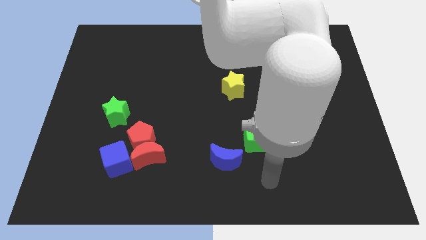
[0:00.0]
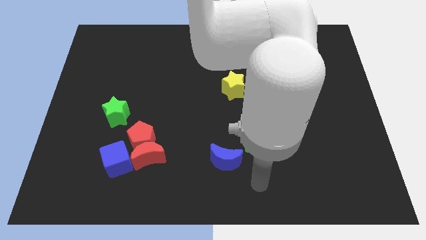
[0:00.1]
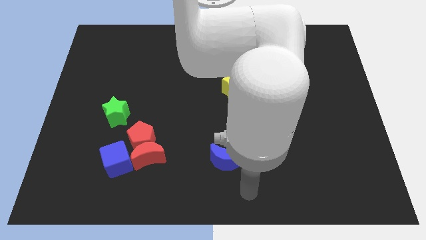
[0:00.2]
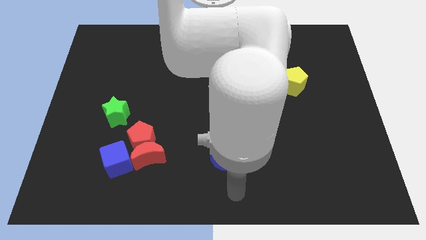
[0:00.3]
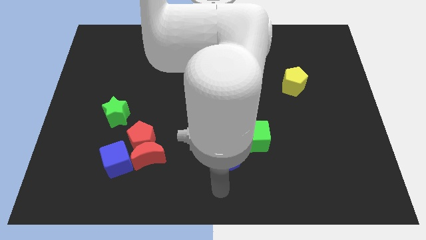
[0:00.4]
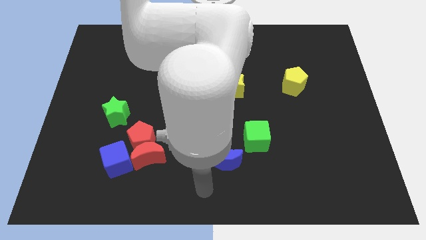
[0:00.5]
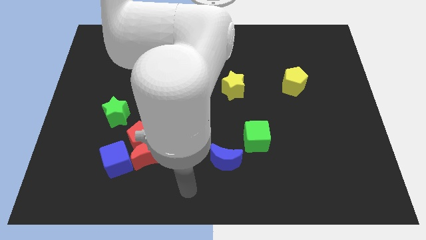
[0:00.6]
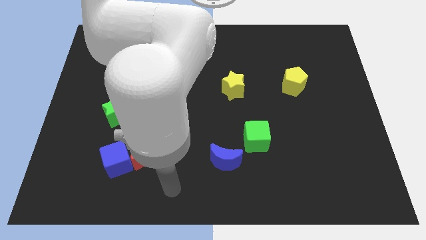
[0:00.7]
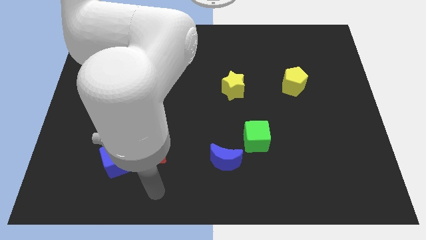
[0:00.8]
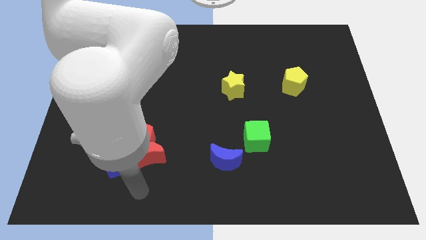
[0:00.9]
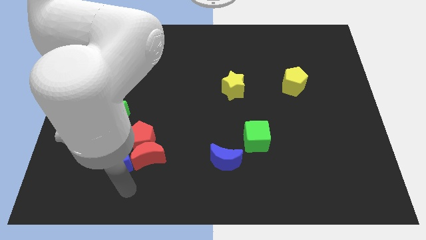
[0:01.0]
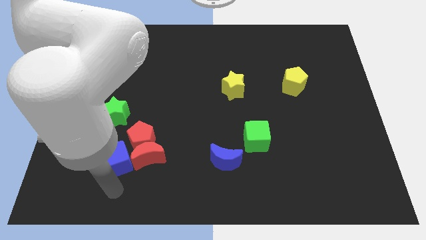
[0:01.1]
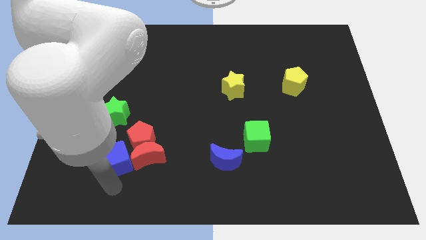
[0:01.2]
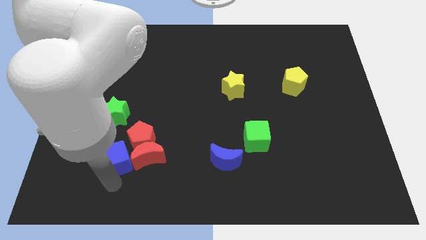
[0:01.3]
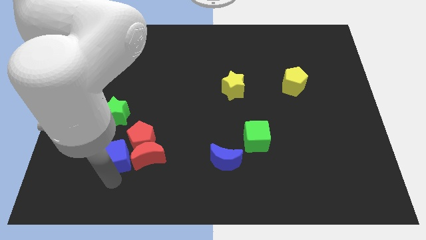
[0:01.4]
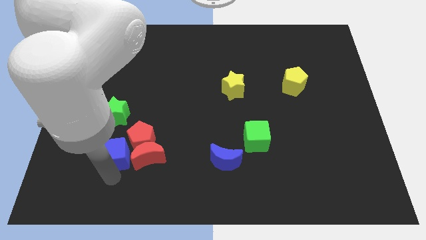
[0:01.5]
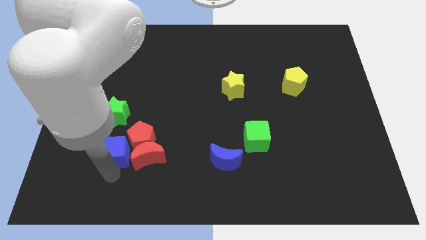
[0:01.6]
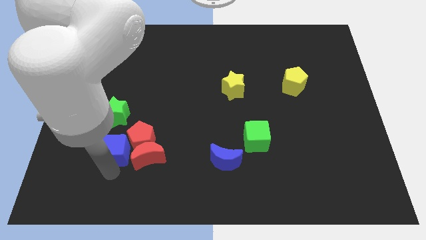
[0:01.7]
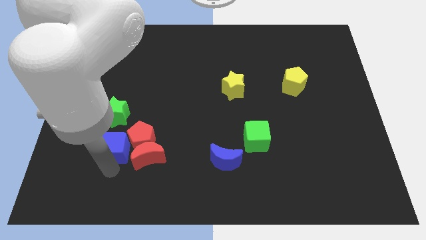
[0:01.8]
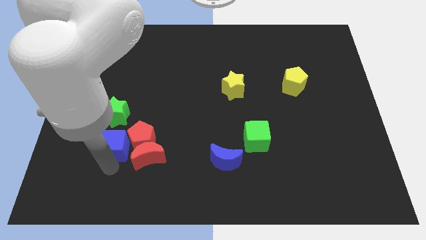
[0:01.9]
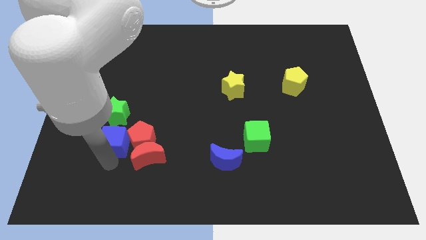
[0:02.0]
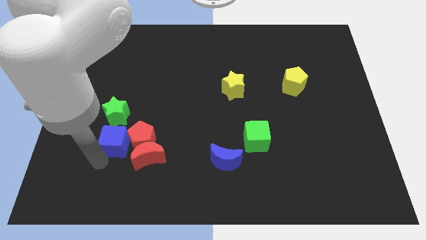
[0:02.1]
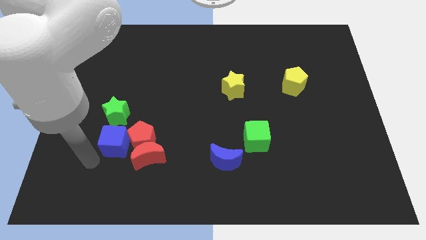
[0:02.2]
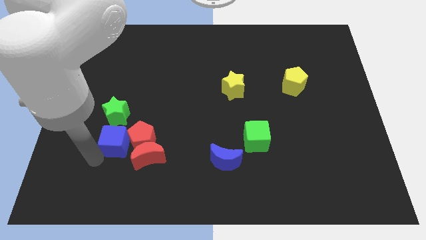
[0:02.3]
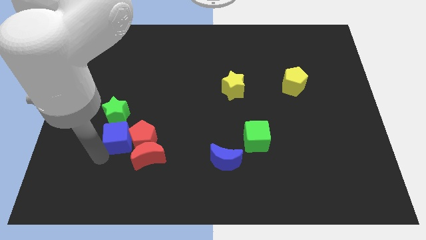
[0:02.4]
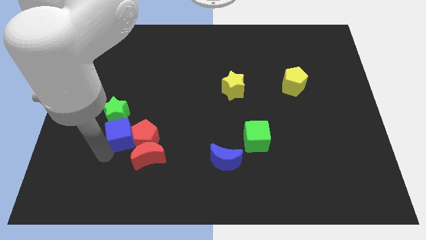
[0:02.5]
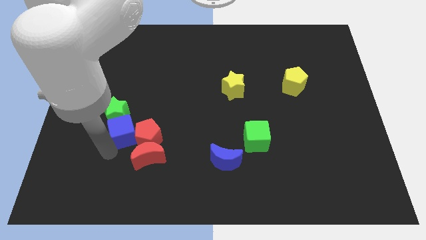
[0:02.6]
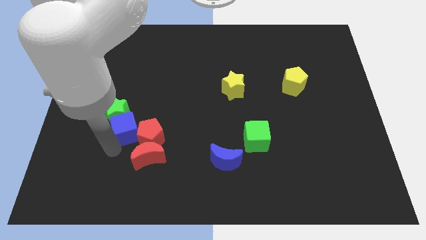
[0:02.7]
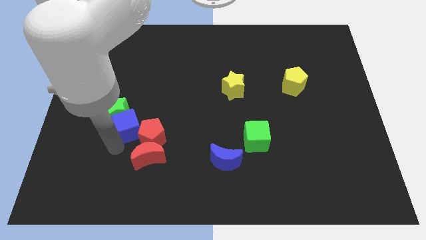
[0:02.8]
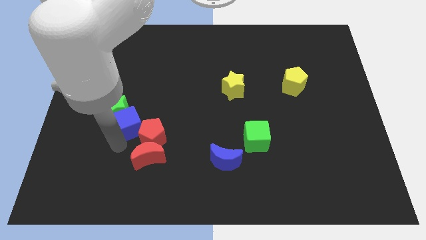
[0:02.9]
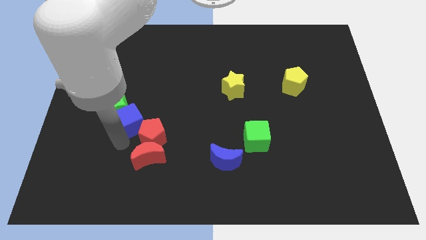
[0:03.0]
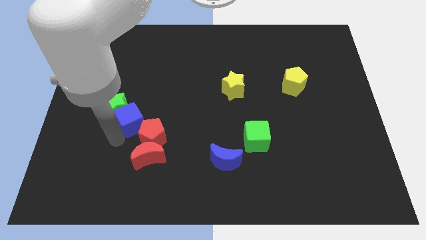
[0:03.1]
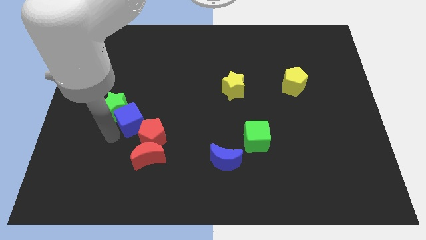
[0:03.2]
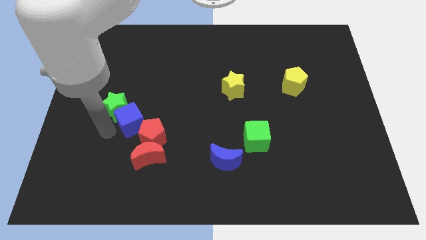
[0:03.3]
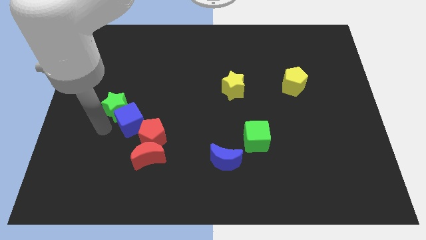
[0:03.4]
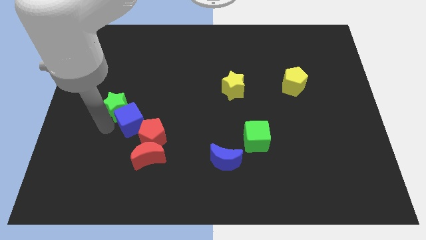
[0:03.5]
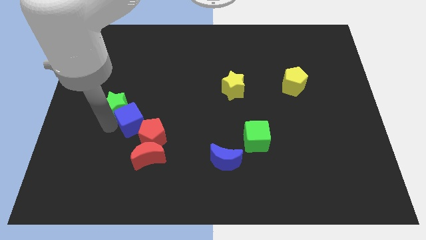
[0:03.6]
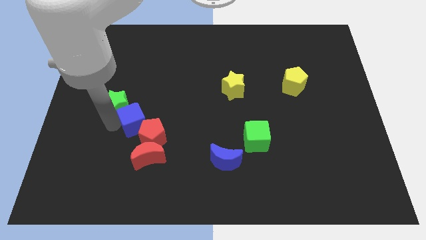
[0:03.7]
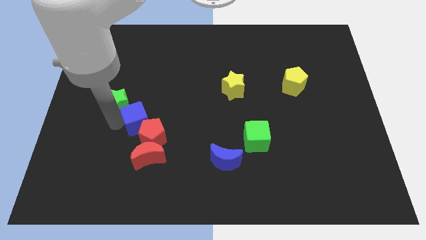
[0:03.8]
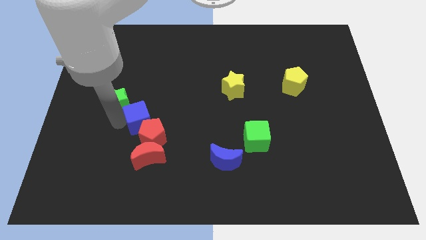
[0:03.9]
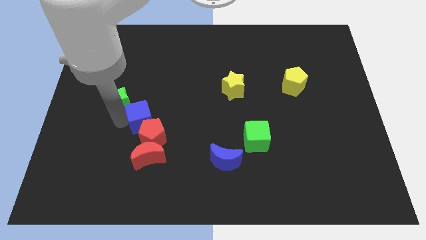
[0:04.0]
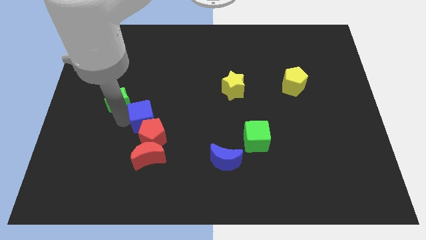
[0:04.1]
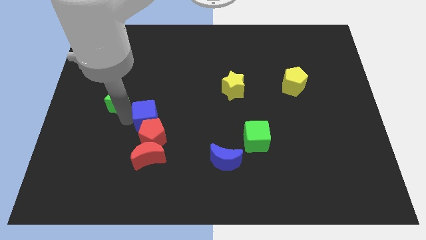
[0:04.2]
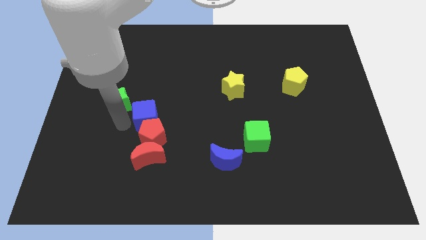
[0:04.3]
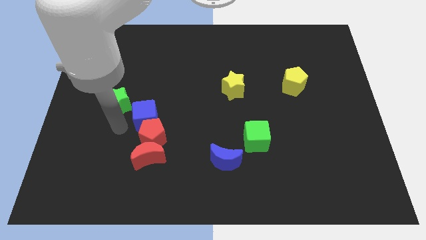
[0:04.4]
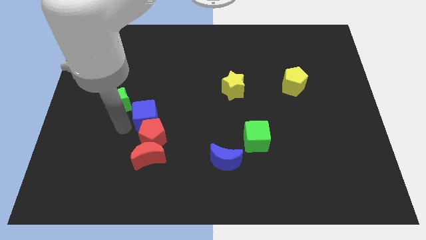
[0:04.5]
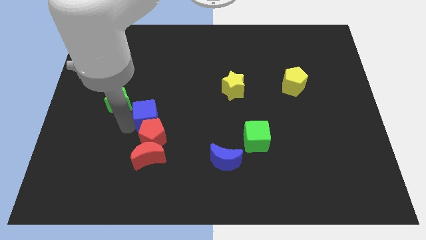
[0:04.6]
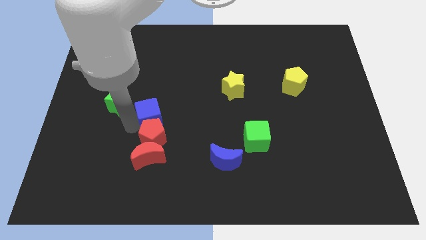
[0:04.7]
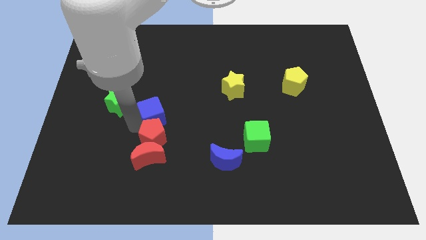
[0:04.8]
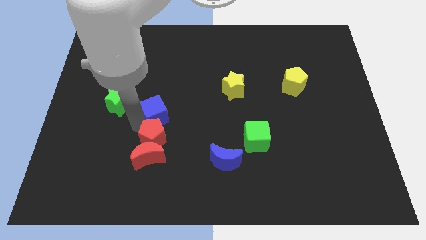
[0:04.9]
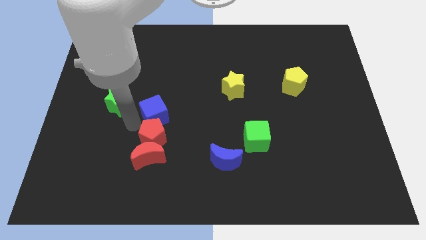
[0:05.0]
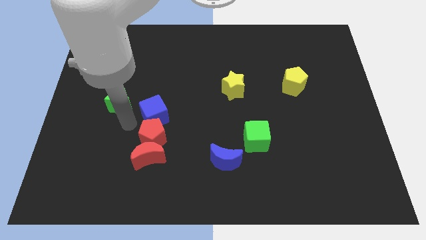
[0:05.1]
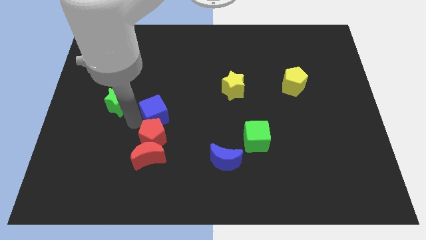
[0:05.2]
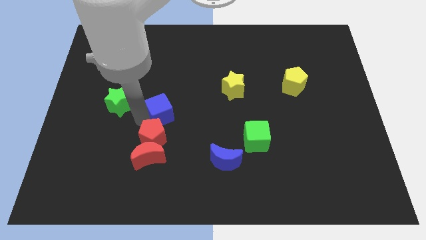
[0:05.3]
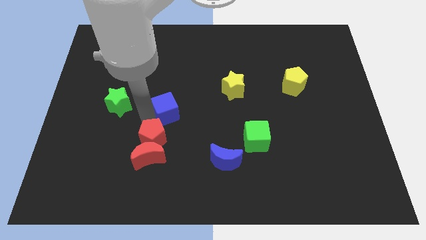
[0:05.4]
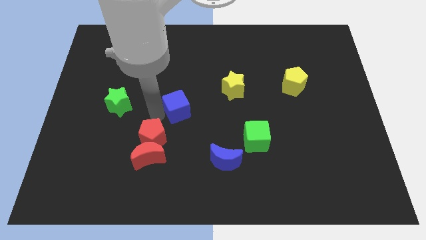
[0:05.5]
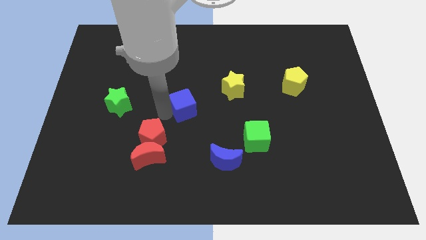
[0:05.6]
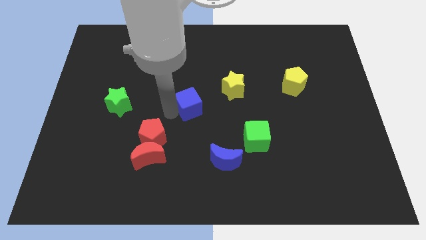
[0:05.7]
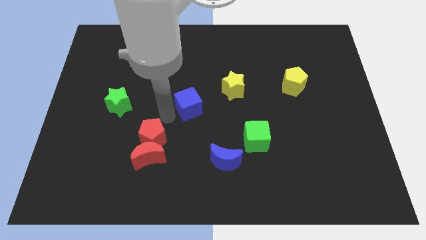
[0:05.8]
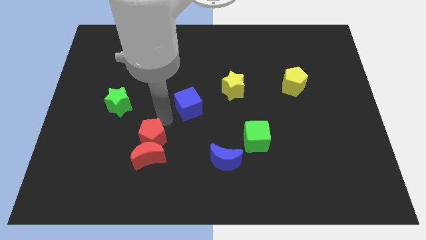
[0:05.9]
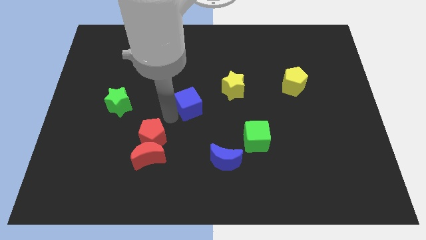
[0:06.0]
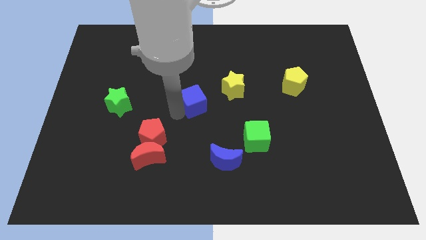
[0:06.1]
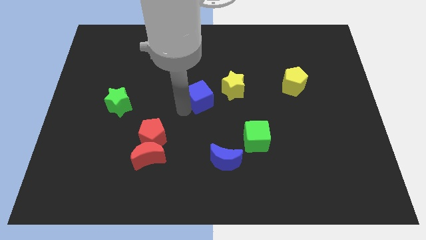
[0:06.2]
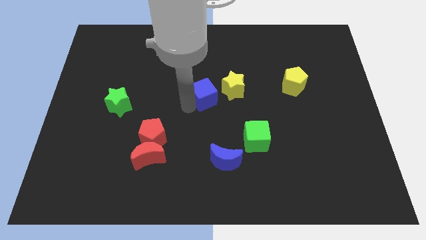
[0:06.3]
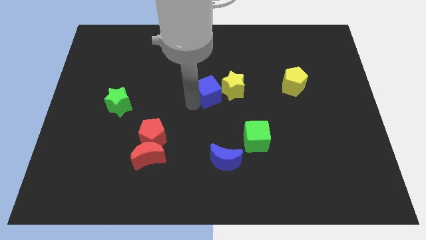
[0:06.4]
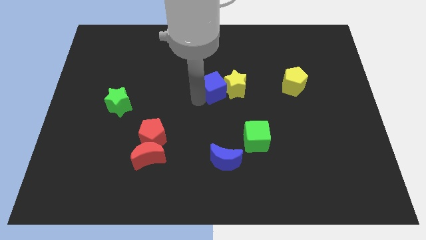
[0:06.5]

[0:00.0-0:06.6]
put the blue cube next to the yellow star
